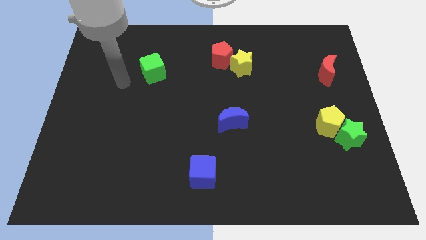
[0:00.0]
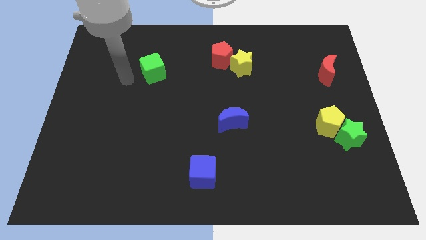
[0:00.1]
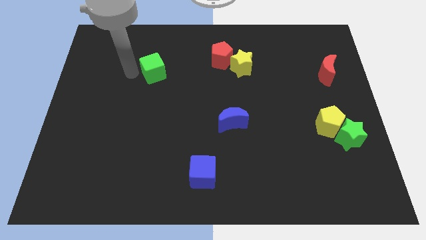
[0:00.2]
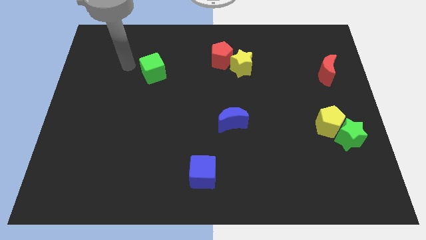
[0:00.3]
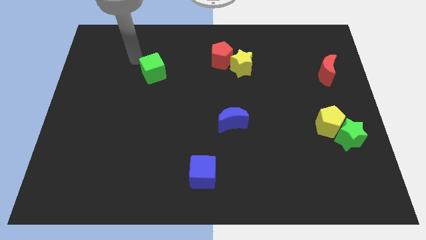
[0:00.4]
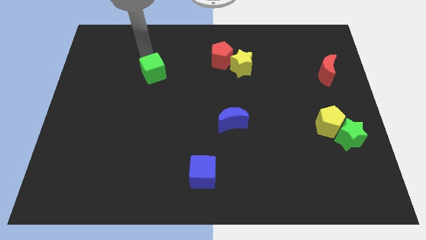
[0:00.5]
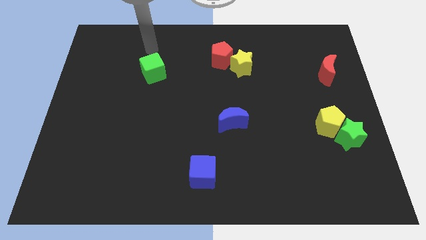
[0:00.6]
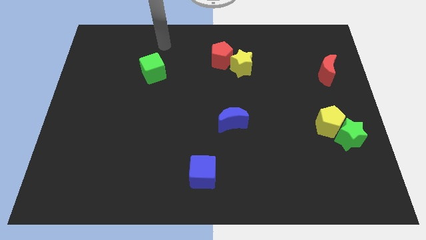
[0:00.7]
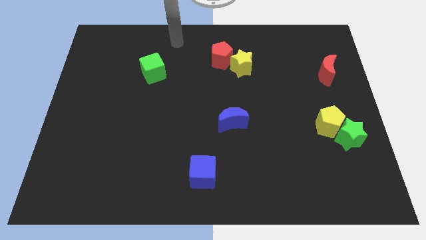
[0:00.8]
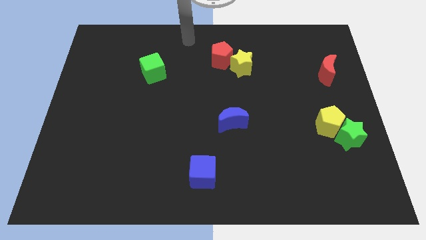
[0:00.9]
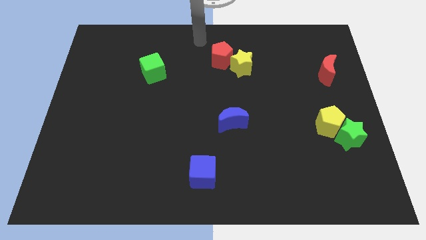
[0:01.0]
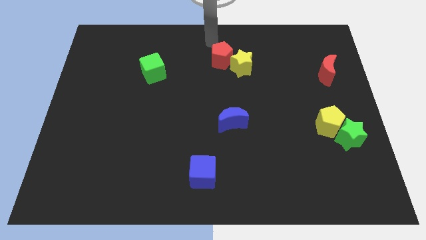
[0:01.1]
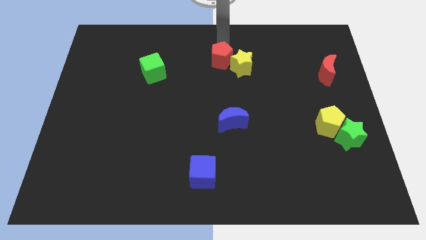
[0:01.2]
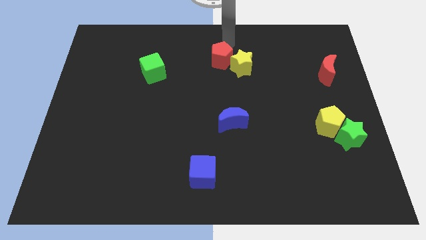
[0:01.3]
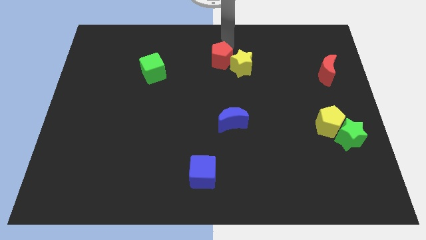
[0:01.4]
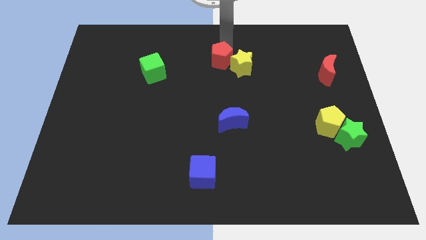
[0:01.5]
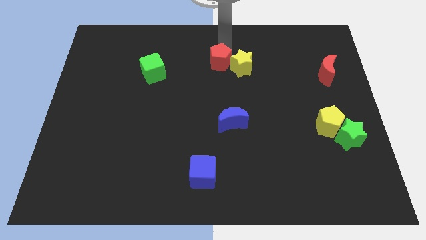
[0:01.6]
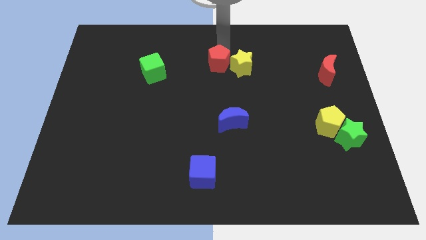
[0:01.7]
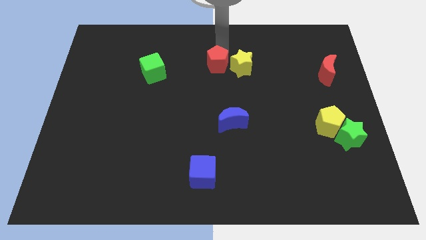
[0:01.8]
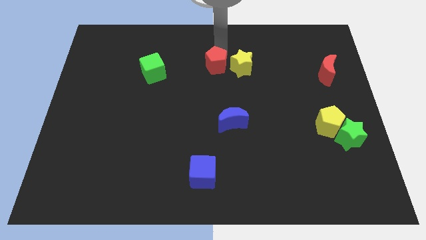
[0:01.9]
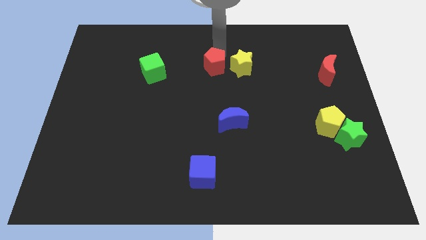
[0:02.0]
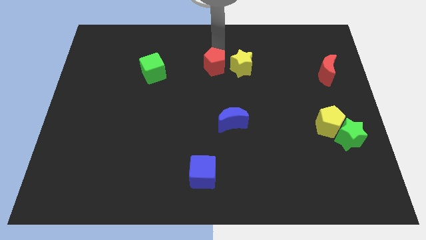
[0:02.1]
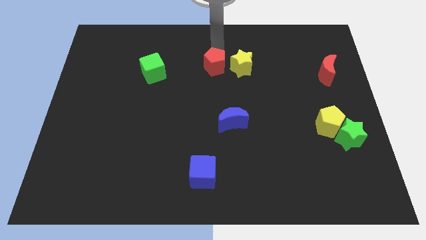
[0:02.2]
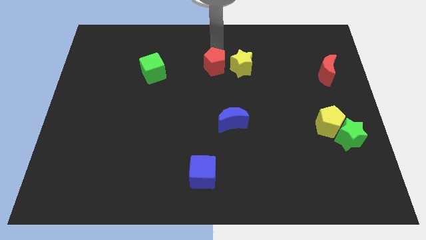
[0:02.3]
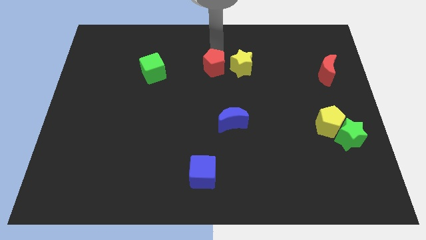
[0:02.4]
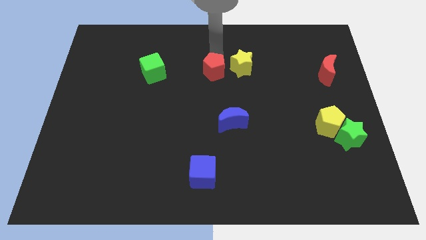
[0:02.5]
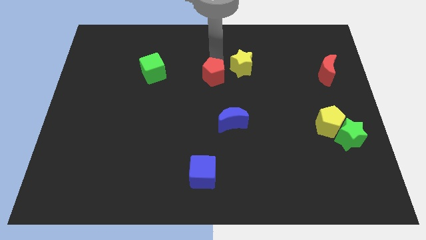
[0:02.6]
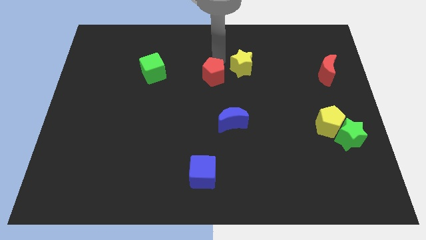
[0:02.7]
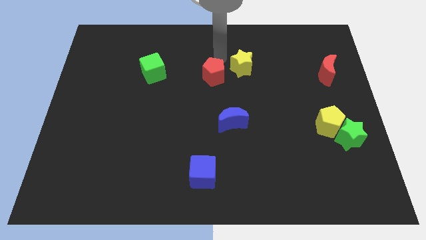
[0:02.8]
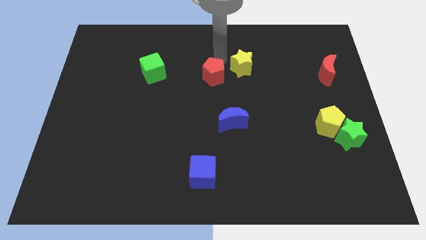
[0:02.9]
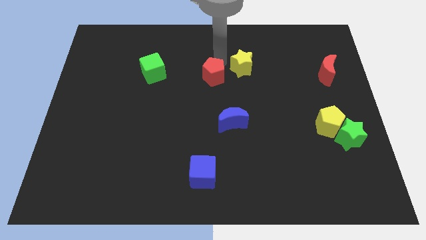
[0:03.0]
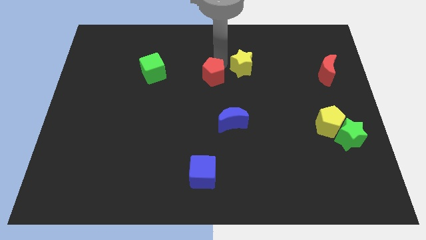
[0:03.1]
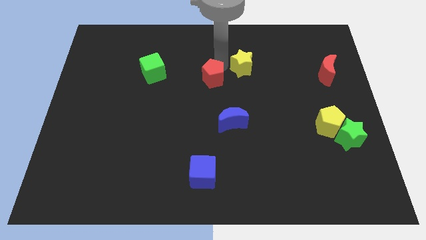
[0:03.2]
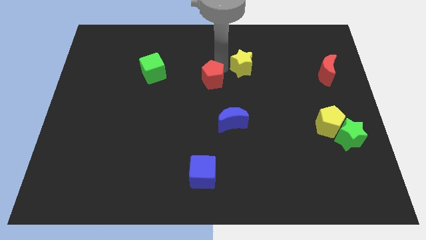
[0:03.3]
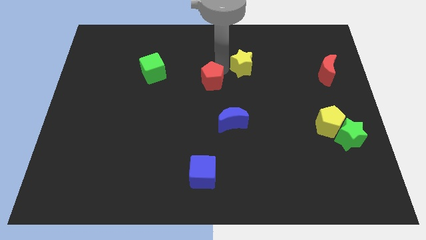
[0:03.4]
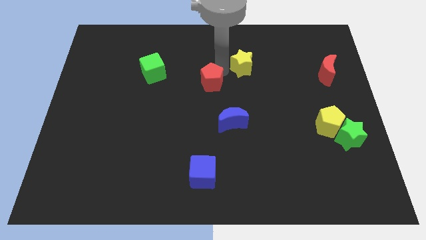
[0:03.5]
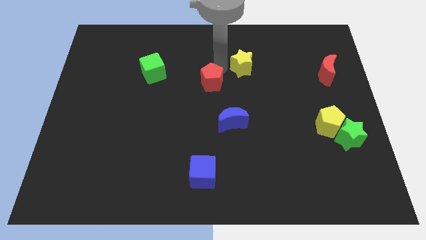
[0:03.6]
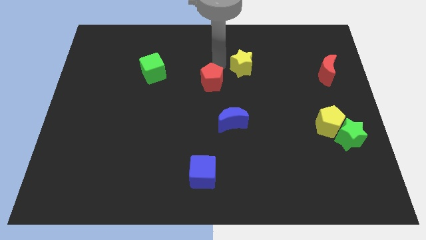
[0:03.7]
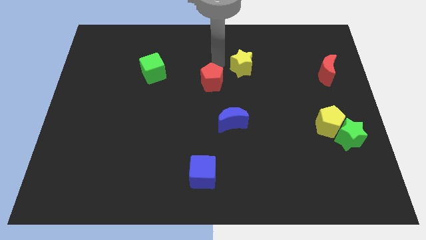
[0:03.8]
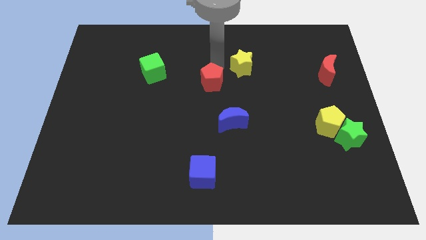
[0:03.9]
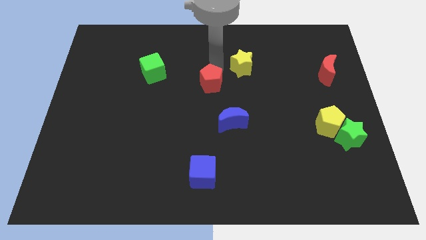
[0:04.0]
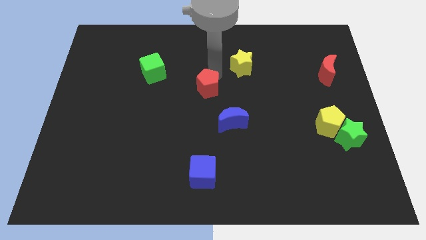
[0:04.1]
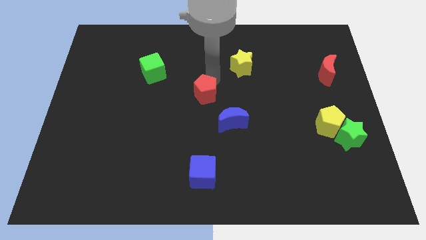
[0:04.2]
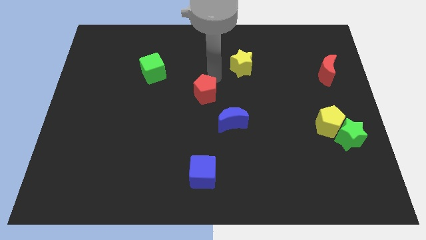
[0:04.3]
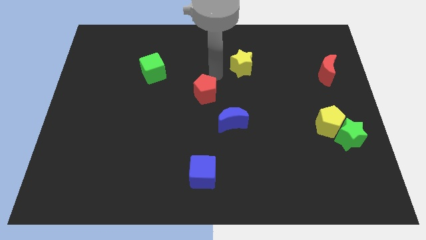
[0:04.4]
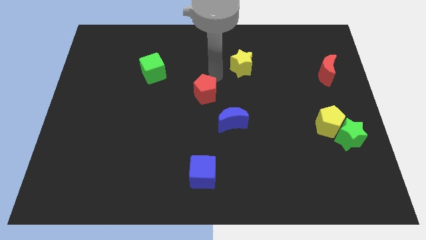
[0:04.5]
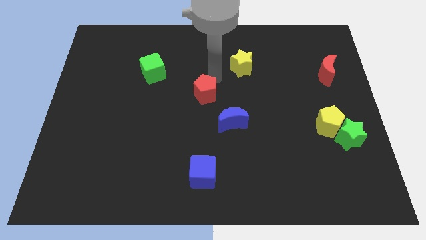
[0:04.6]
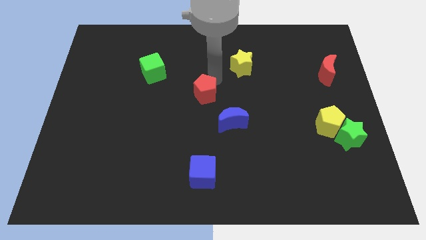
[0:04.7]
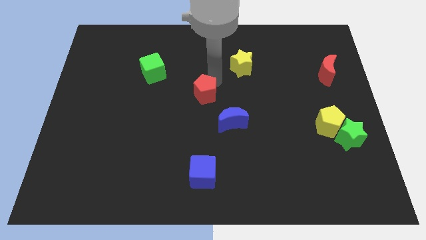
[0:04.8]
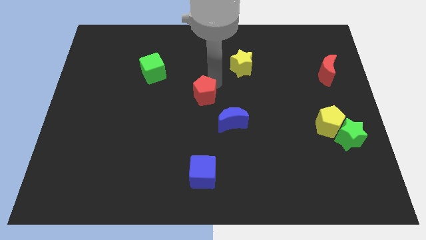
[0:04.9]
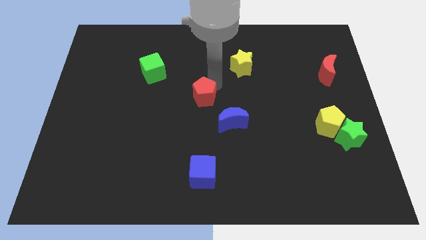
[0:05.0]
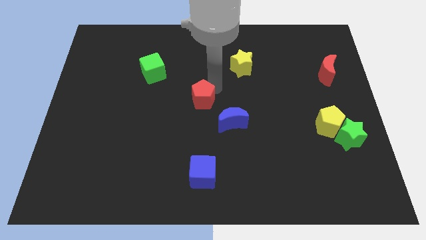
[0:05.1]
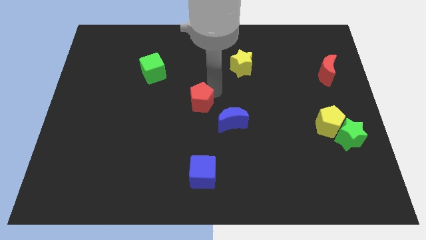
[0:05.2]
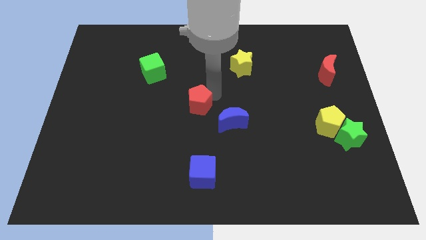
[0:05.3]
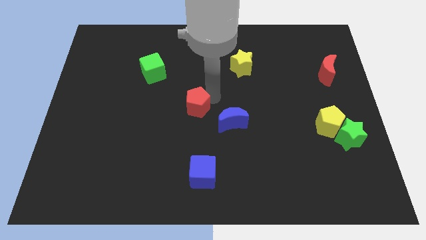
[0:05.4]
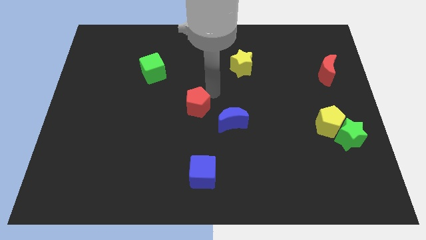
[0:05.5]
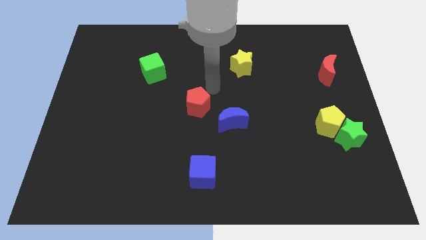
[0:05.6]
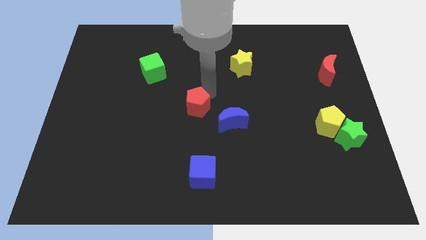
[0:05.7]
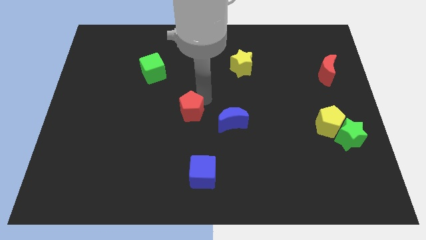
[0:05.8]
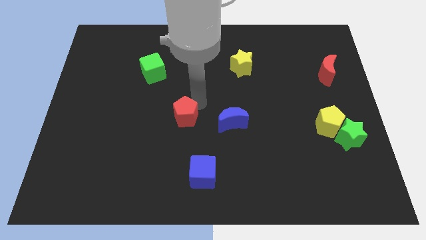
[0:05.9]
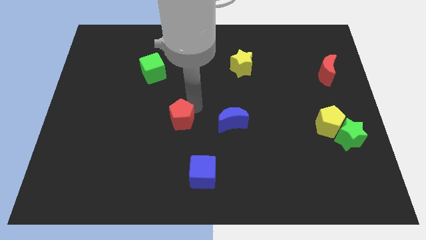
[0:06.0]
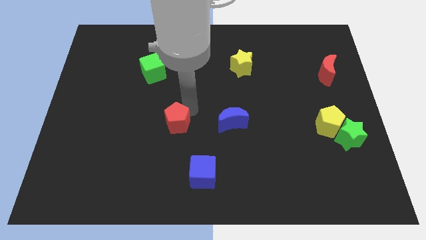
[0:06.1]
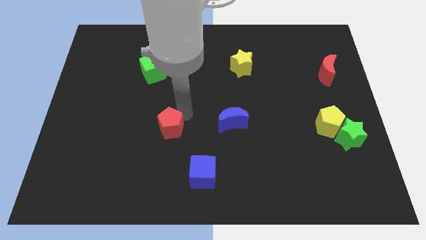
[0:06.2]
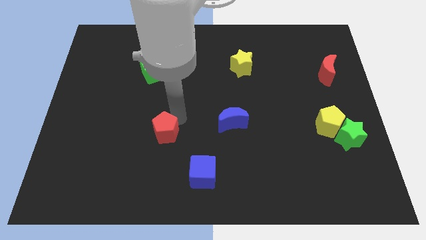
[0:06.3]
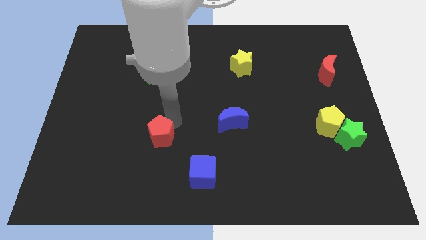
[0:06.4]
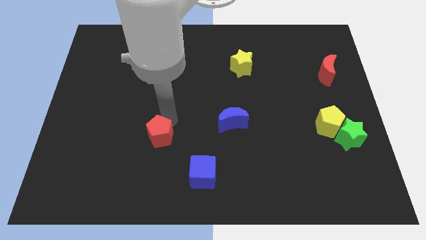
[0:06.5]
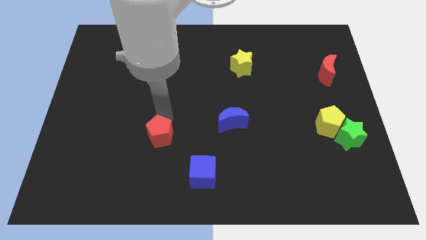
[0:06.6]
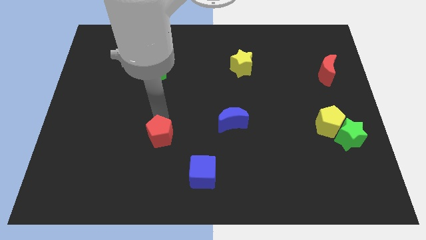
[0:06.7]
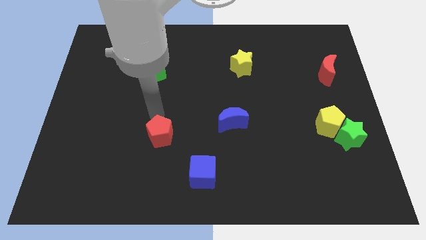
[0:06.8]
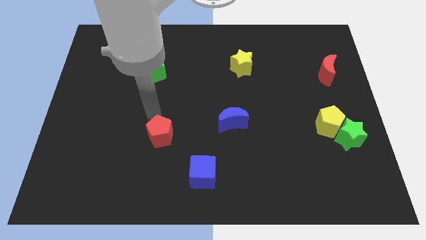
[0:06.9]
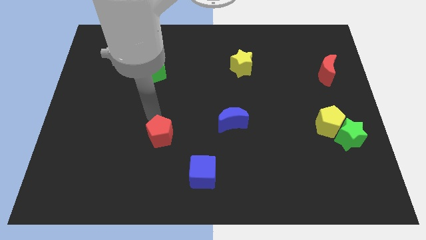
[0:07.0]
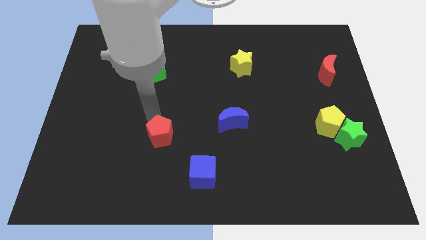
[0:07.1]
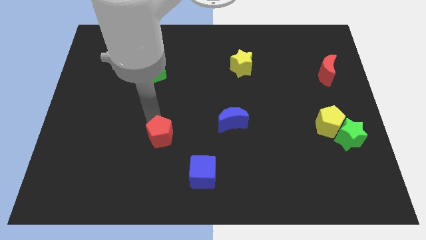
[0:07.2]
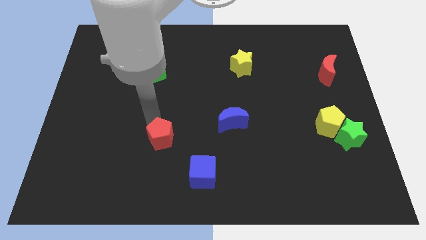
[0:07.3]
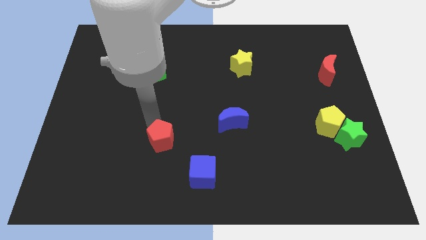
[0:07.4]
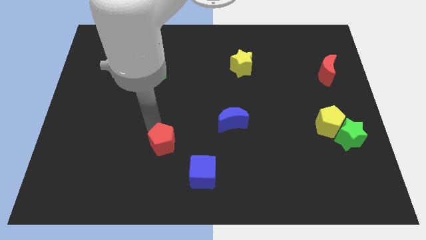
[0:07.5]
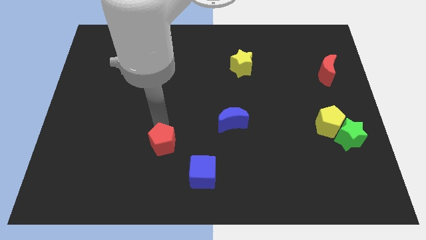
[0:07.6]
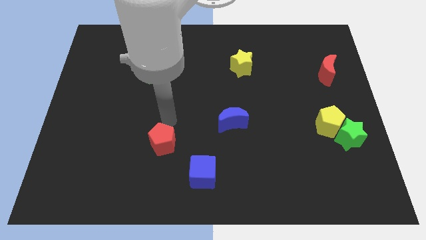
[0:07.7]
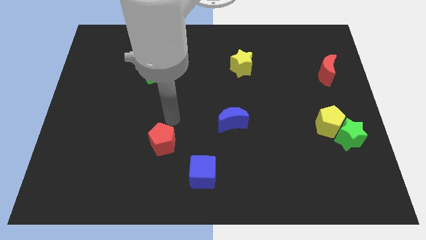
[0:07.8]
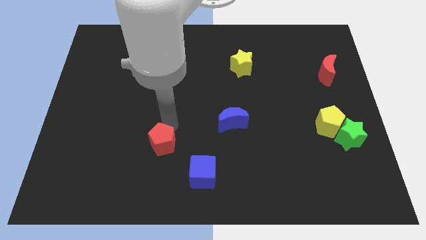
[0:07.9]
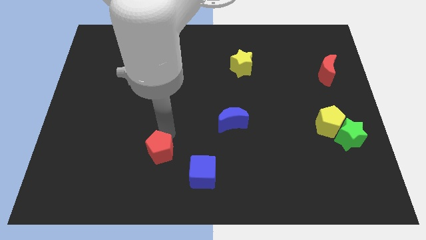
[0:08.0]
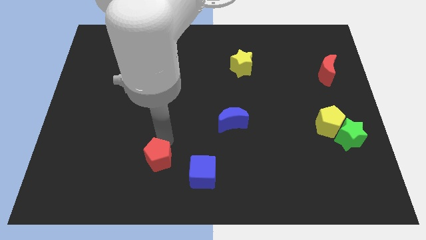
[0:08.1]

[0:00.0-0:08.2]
push the red pentagon to the left of the blue cube
